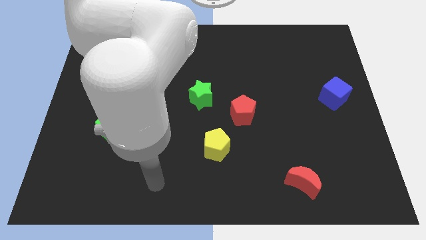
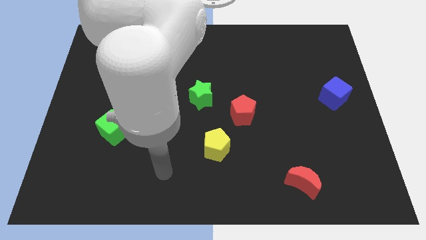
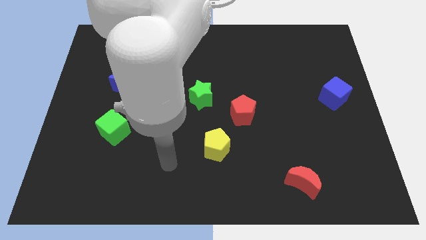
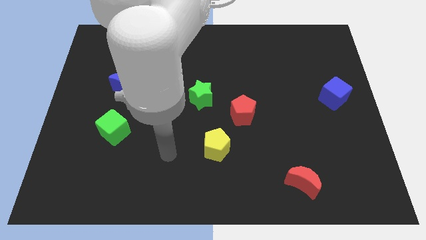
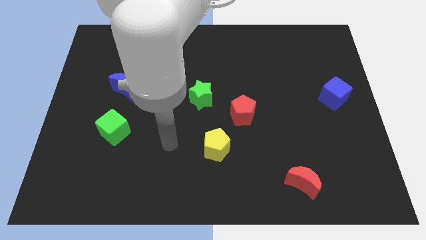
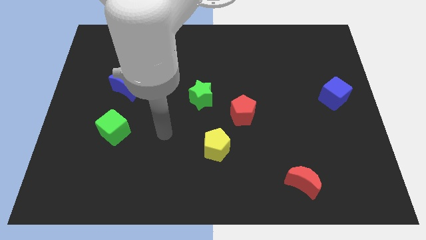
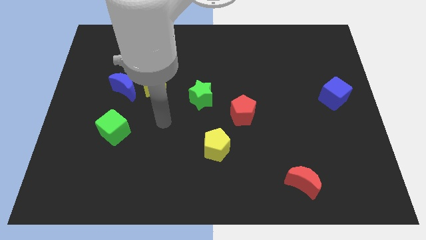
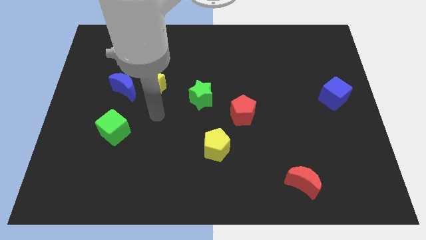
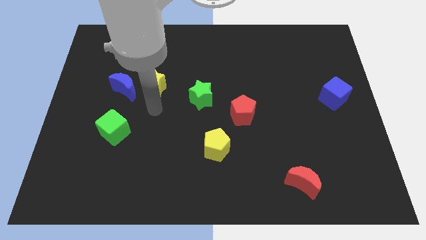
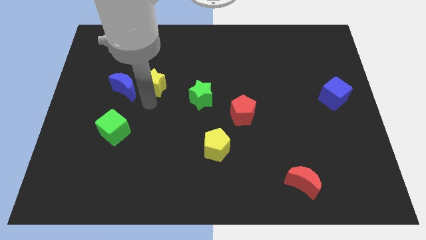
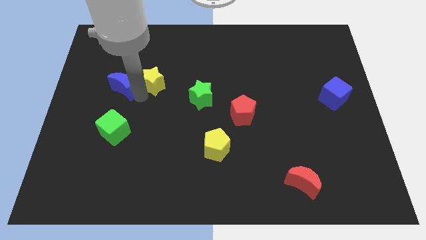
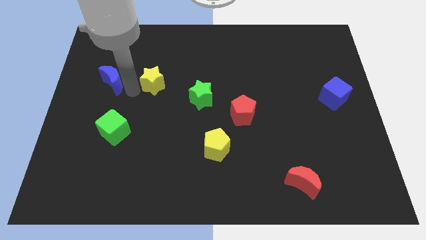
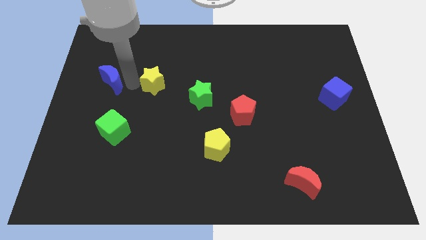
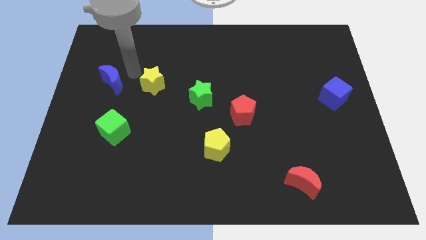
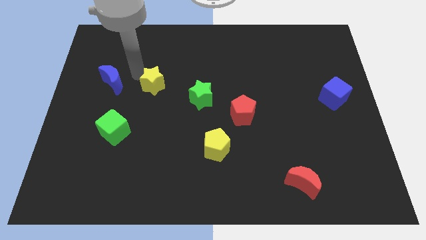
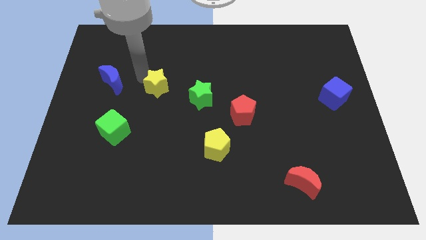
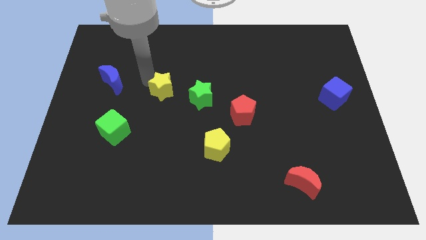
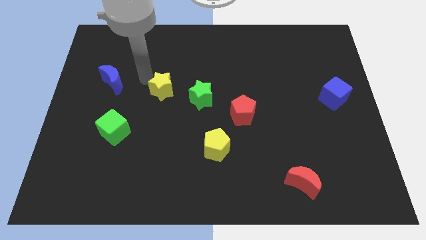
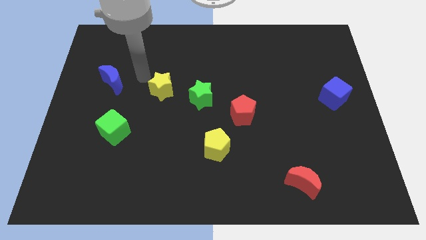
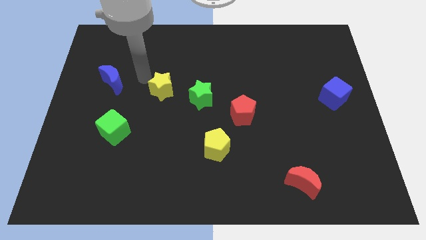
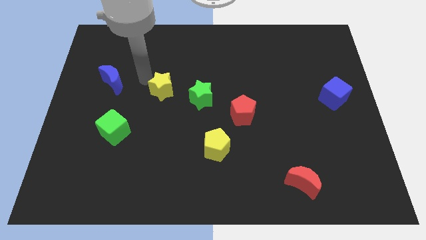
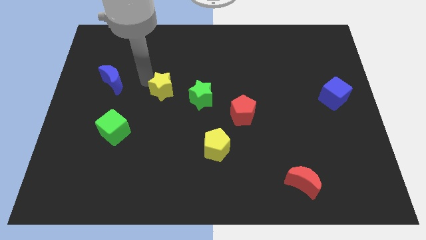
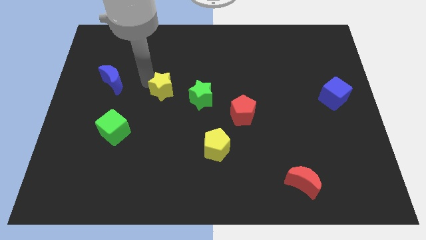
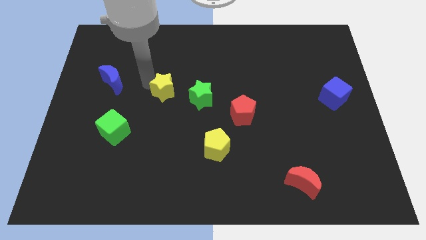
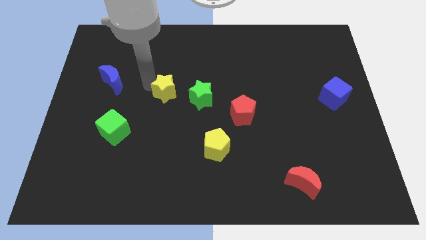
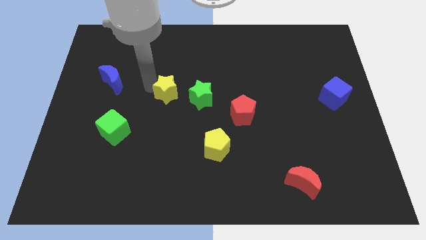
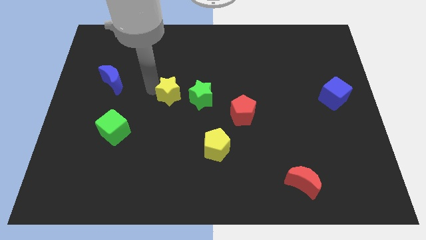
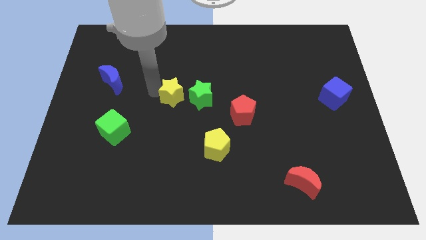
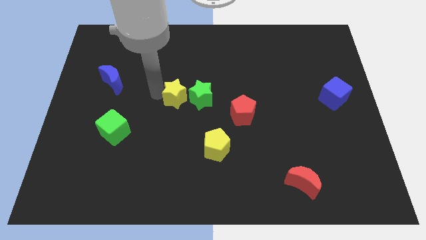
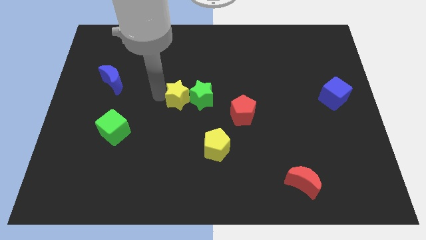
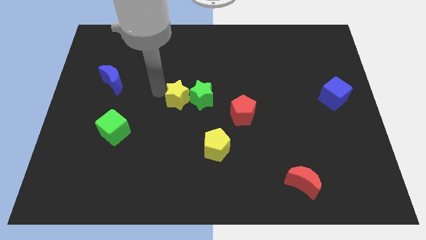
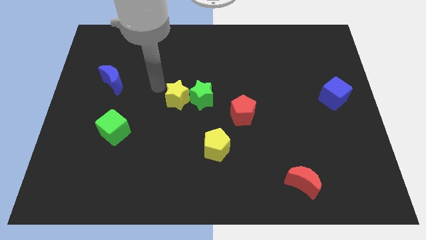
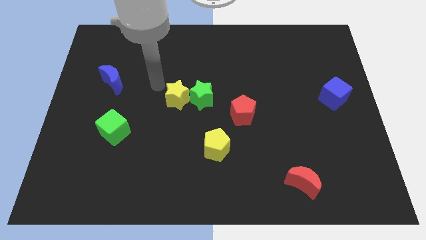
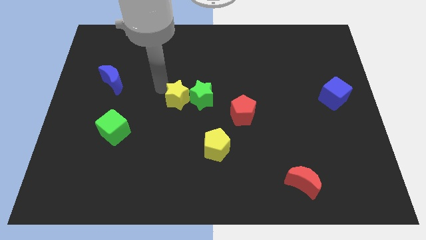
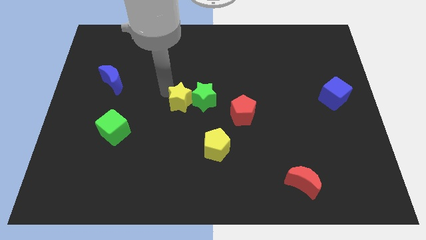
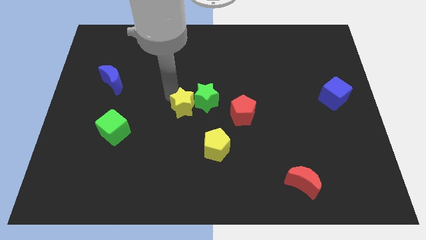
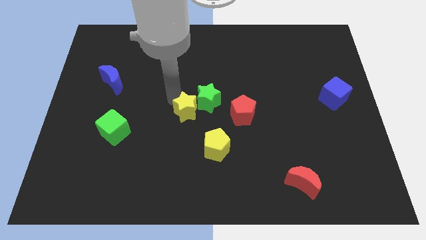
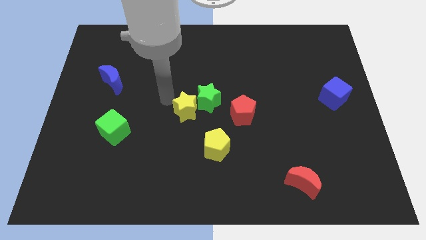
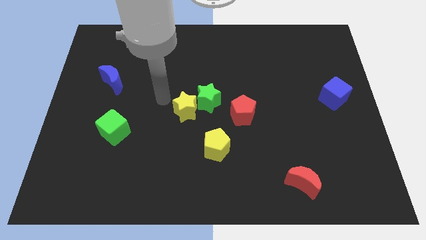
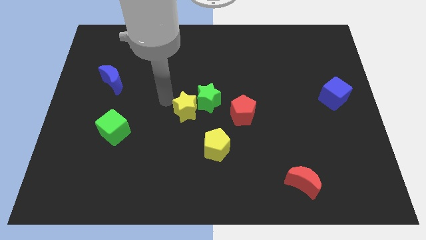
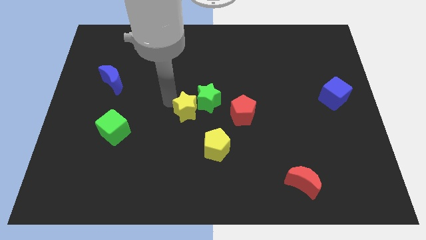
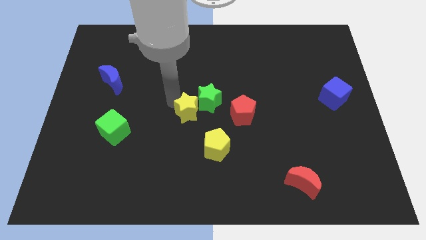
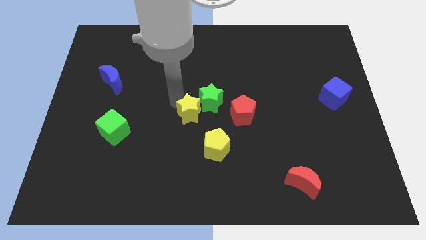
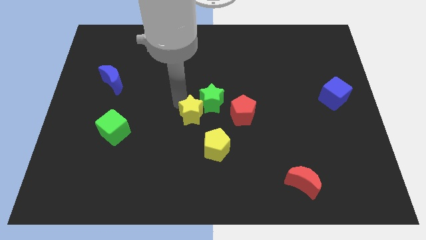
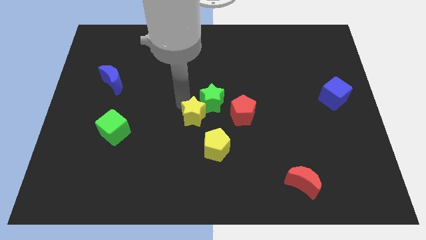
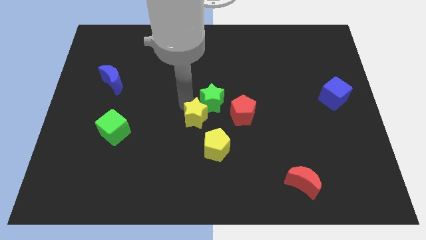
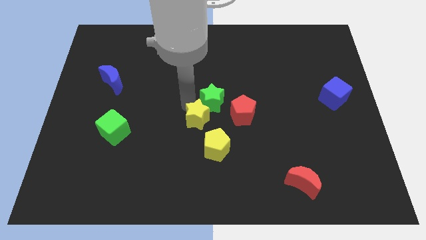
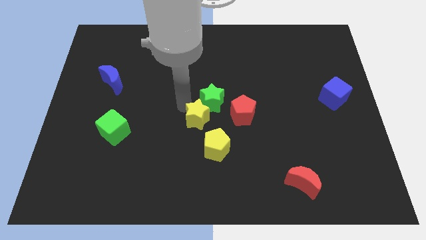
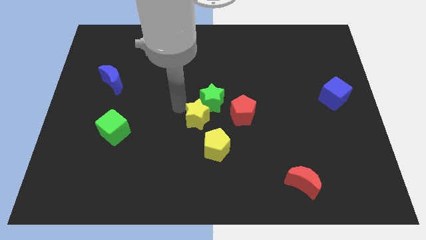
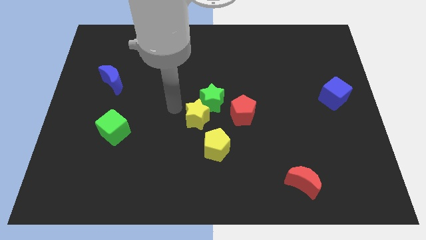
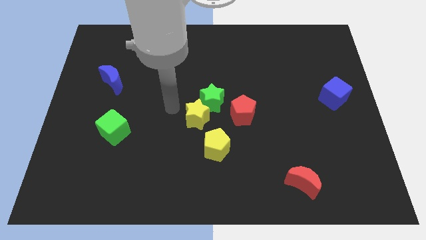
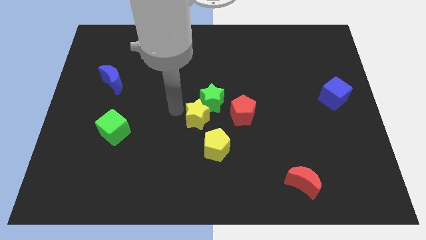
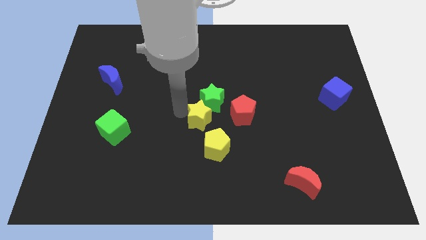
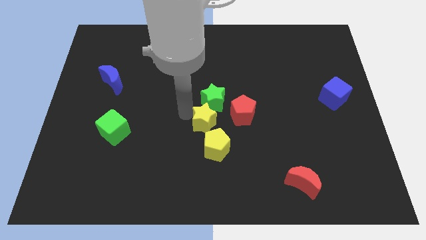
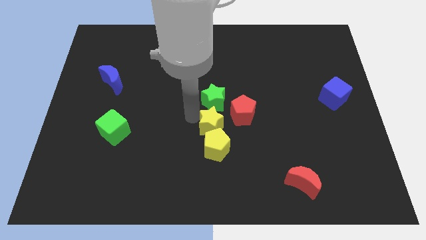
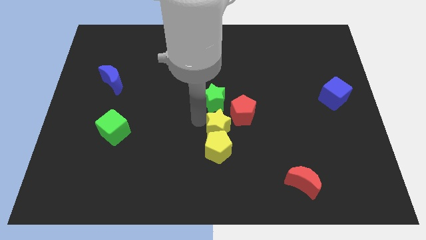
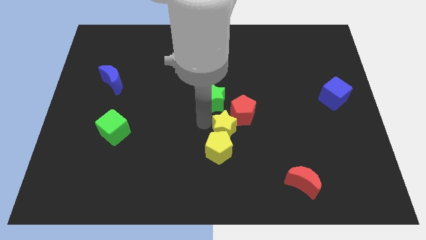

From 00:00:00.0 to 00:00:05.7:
slide the yellow star to the bottom of the red pentagon

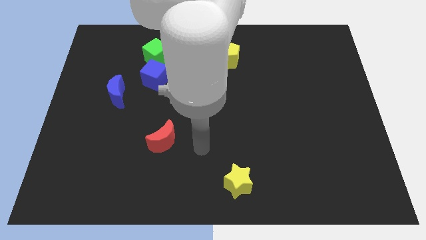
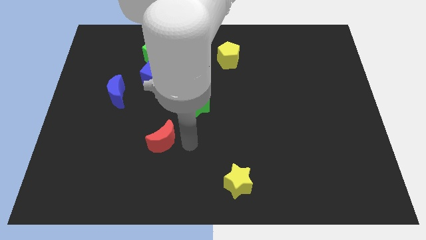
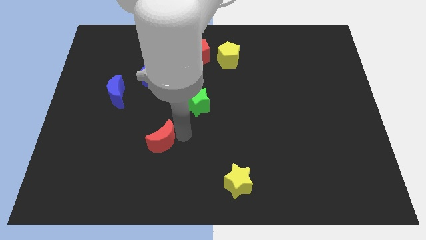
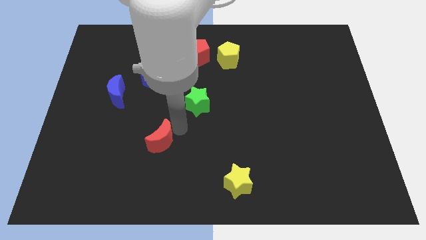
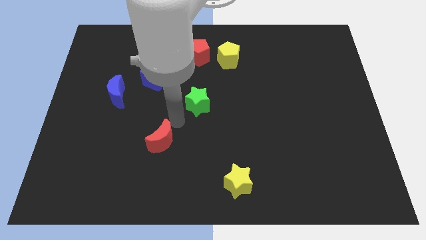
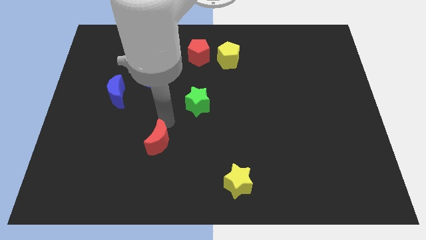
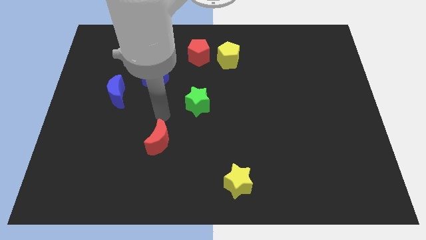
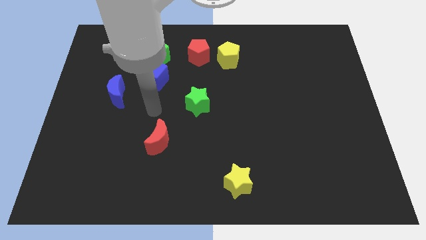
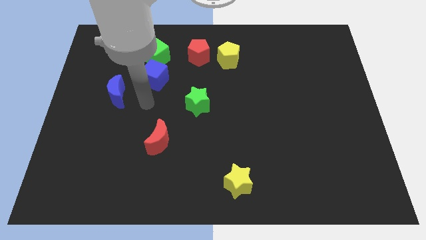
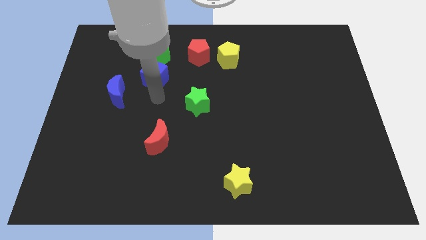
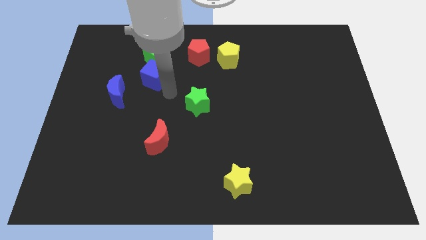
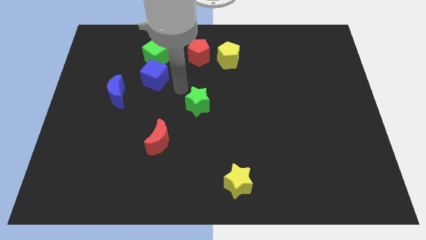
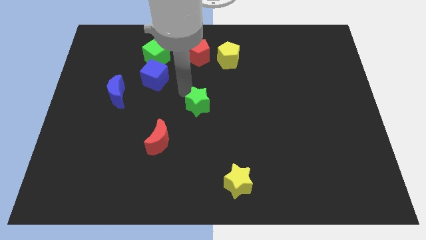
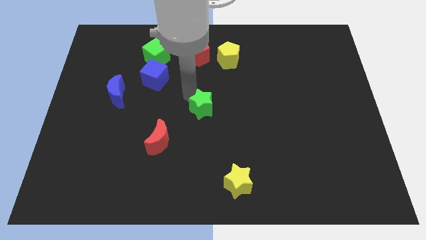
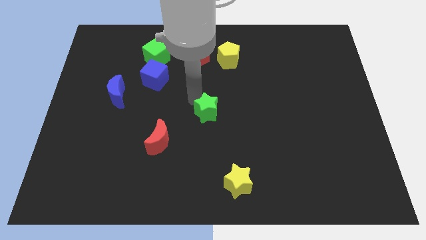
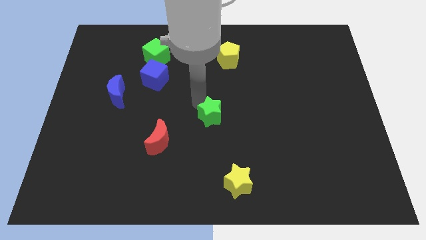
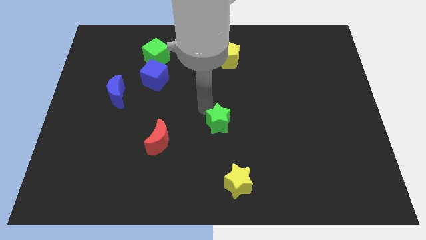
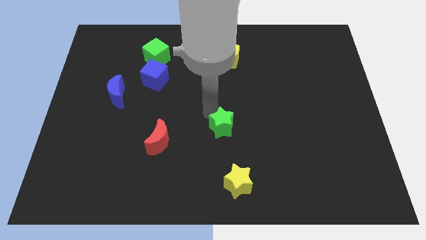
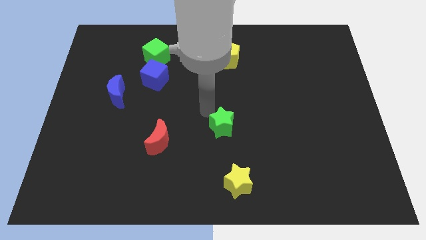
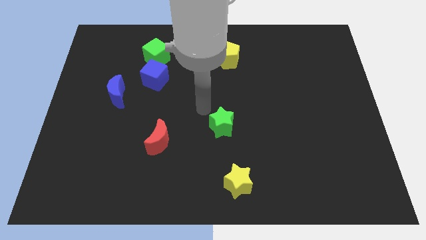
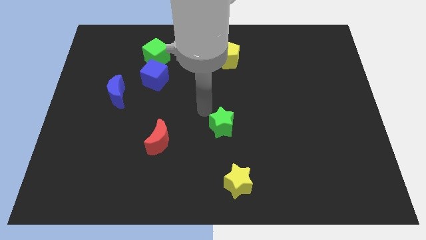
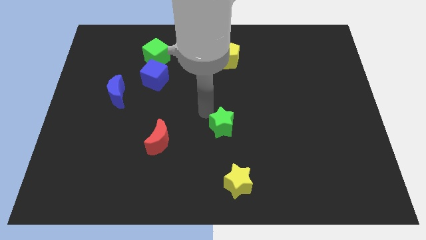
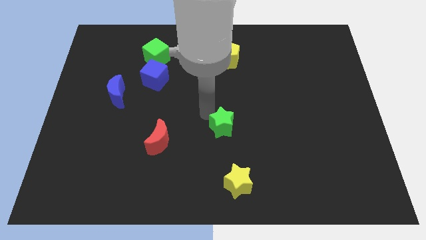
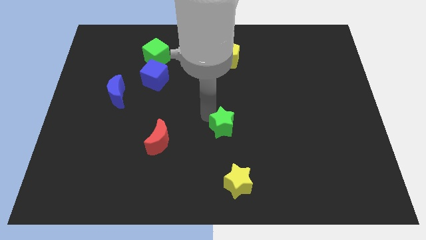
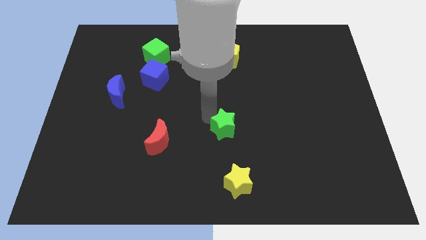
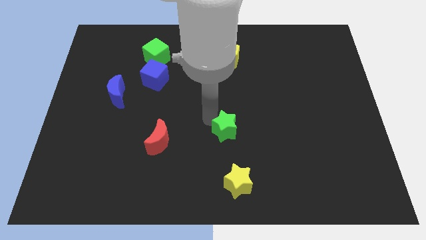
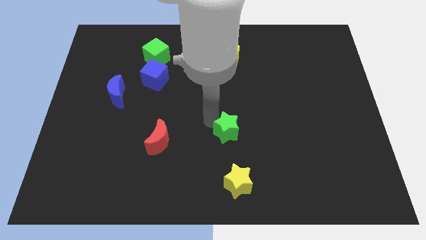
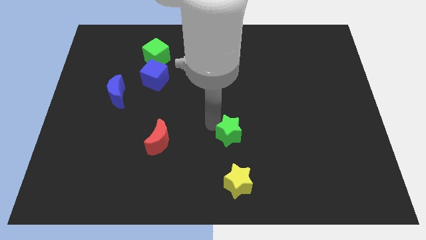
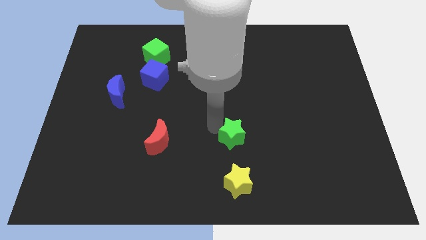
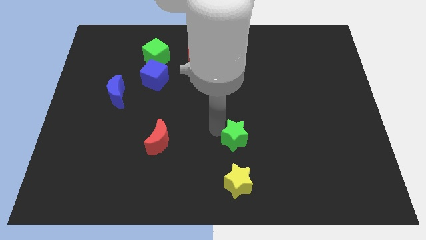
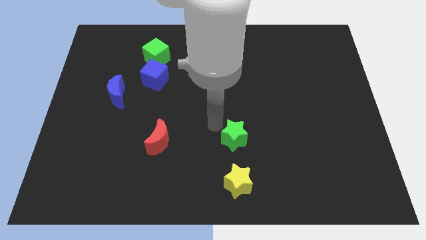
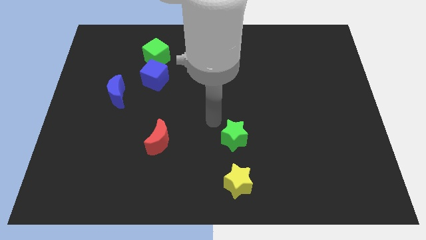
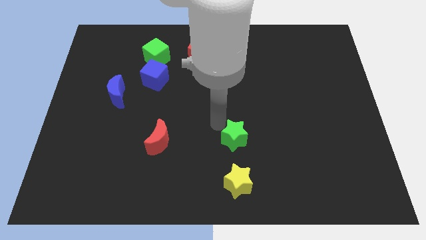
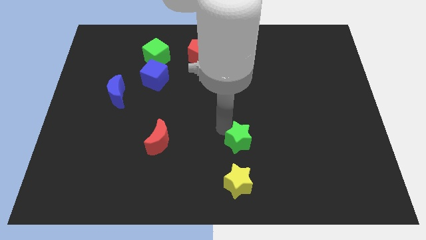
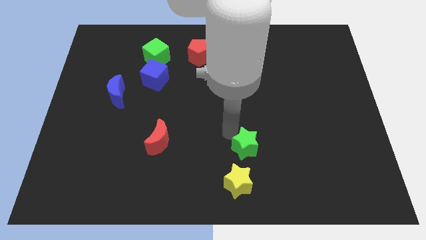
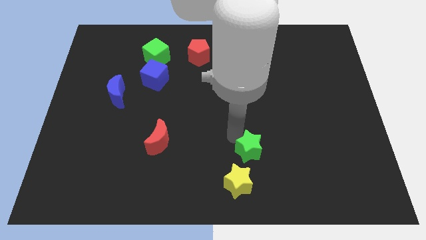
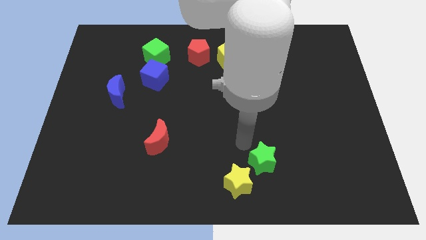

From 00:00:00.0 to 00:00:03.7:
put the green star just right of the yellow star
